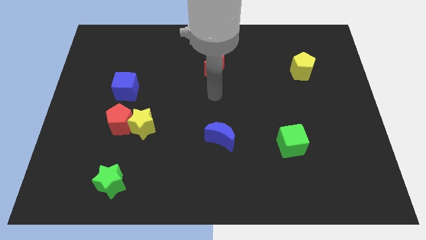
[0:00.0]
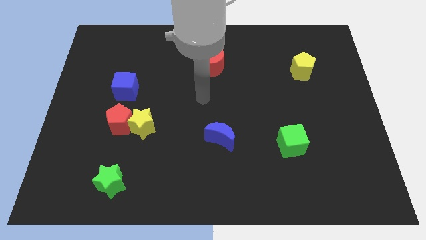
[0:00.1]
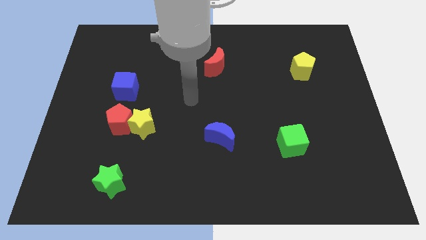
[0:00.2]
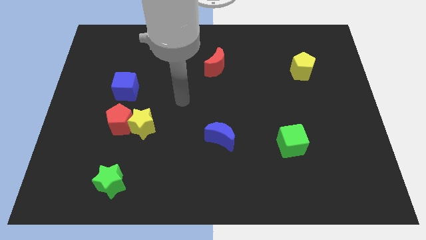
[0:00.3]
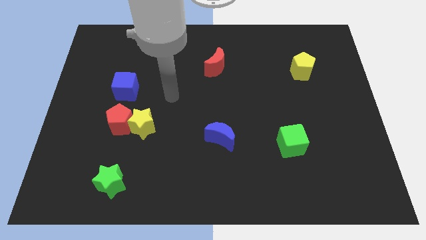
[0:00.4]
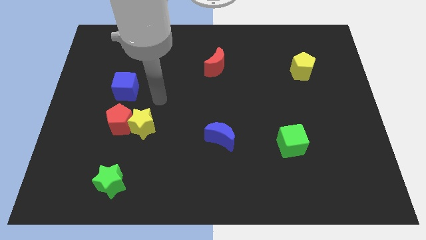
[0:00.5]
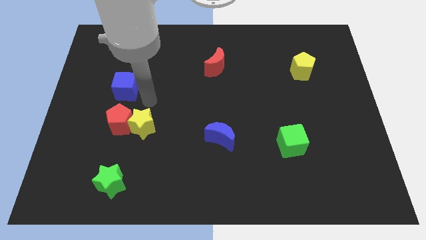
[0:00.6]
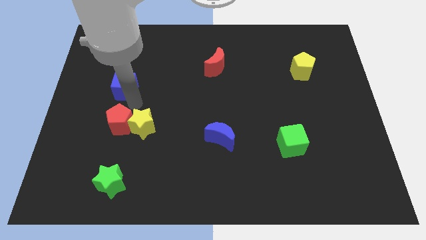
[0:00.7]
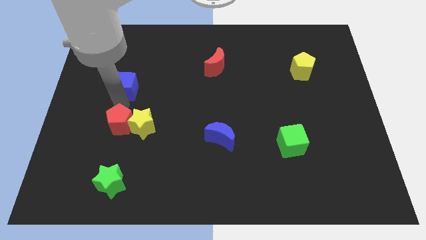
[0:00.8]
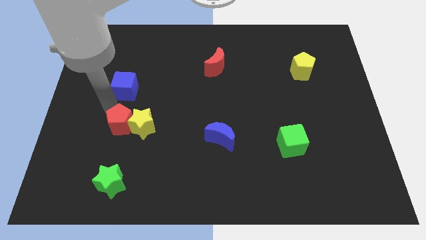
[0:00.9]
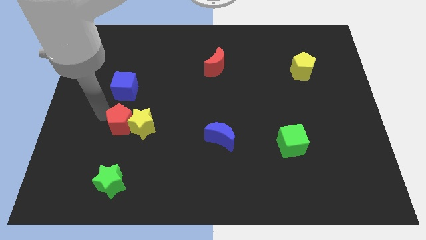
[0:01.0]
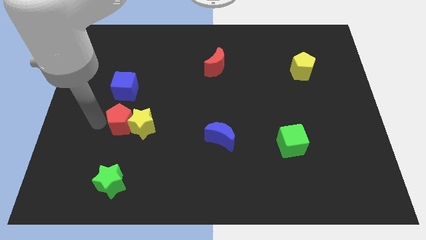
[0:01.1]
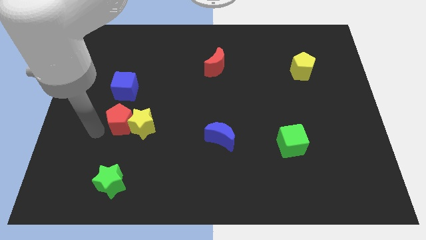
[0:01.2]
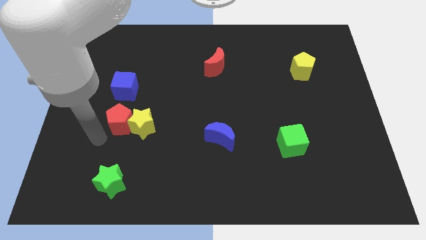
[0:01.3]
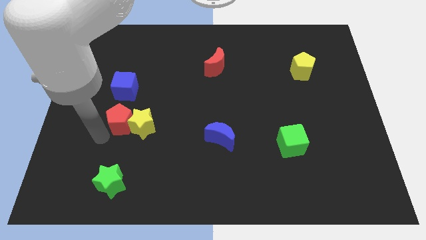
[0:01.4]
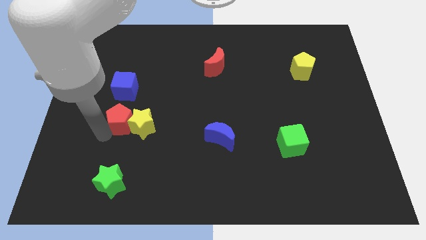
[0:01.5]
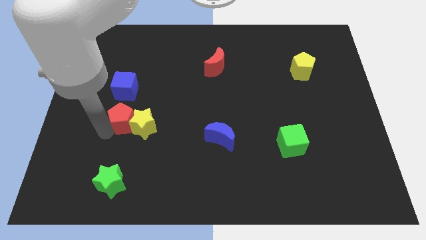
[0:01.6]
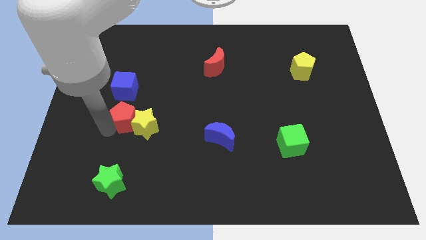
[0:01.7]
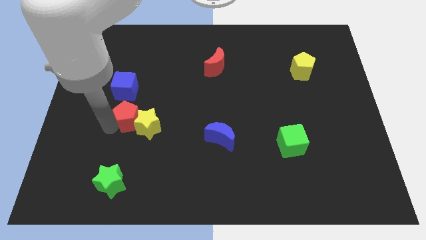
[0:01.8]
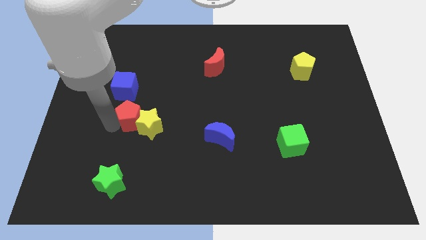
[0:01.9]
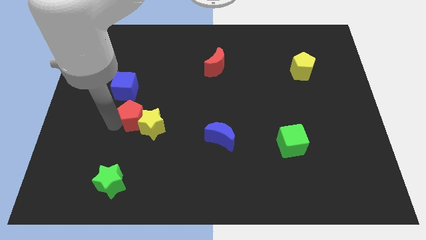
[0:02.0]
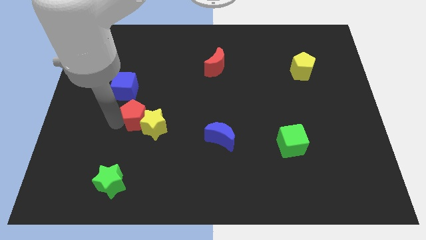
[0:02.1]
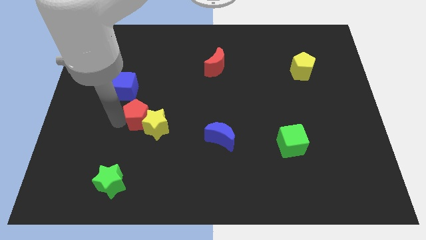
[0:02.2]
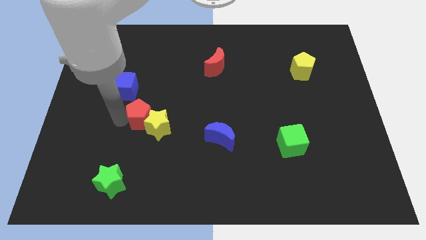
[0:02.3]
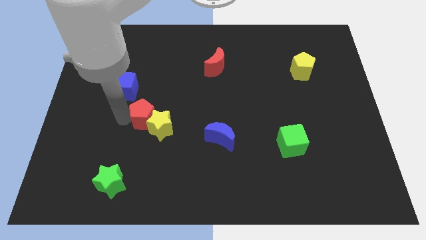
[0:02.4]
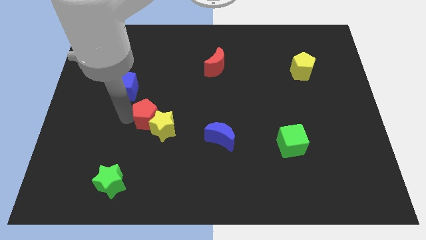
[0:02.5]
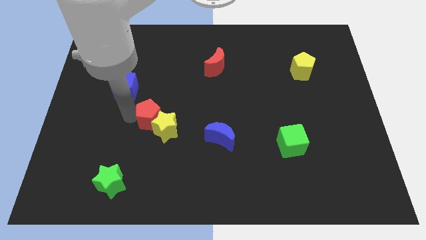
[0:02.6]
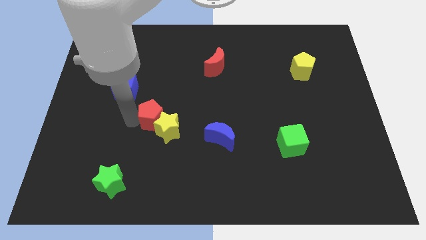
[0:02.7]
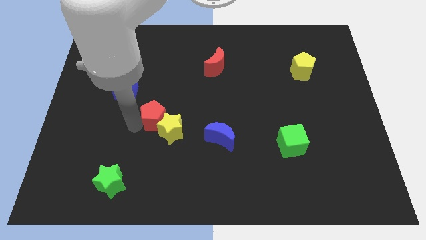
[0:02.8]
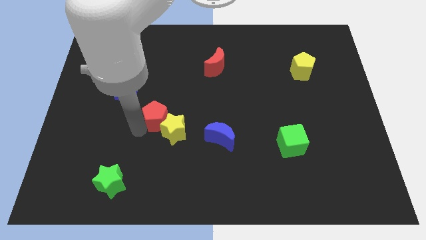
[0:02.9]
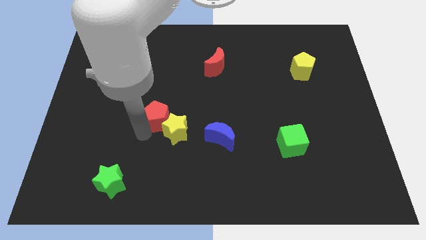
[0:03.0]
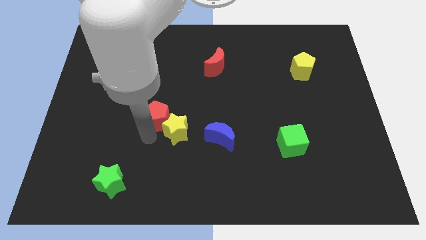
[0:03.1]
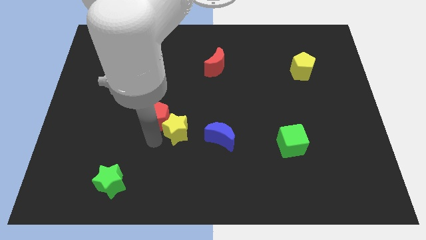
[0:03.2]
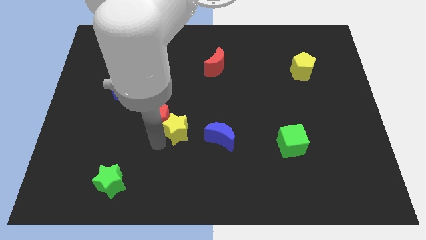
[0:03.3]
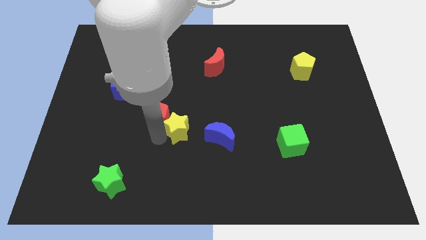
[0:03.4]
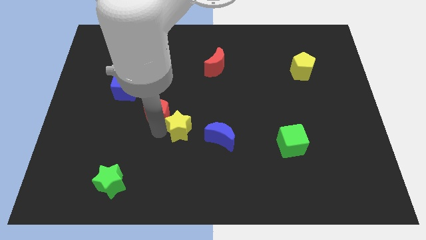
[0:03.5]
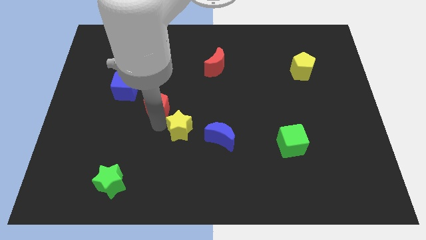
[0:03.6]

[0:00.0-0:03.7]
move the red pentagon up and right diagonally slightly

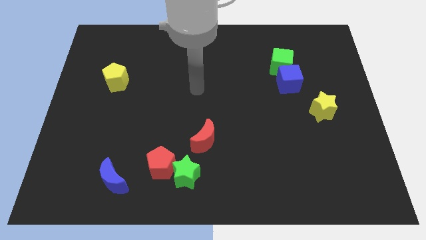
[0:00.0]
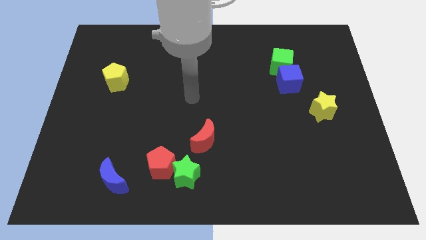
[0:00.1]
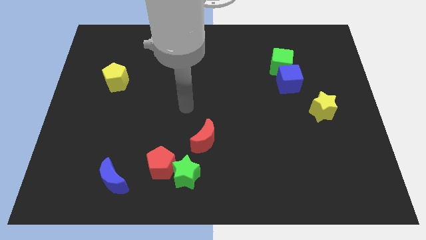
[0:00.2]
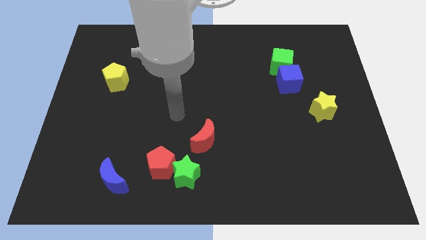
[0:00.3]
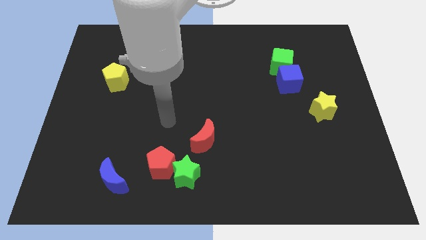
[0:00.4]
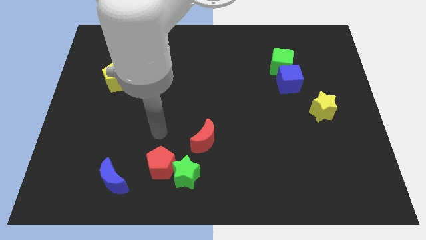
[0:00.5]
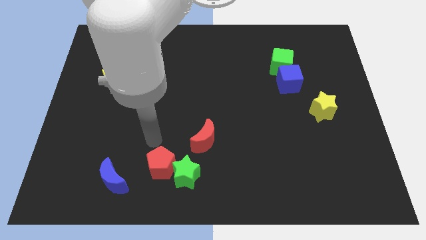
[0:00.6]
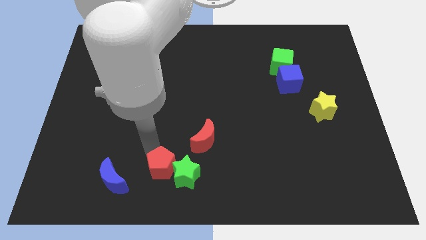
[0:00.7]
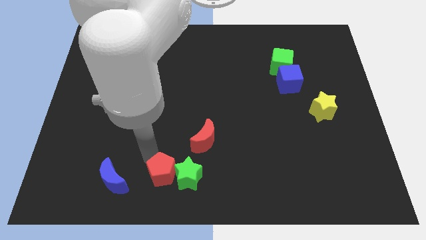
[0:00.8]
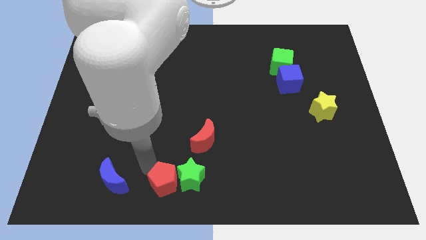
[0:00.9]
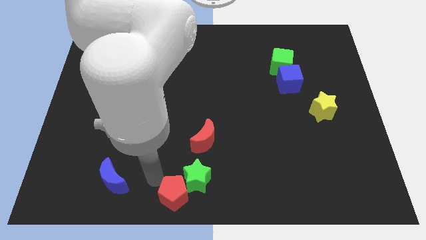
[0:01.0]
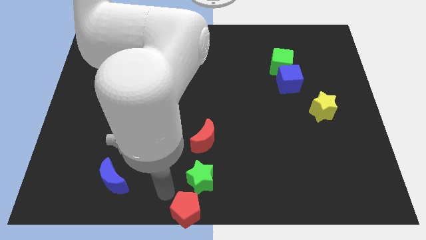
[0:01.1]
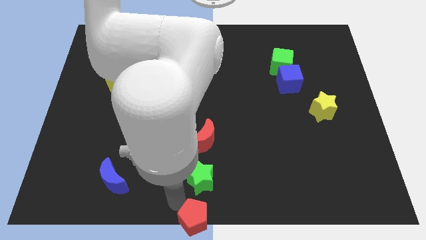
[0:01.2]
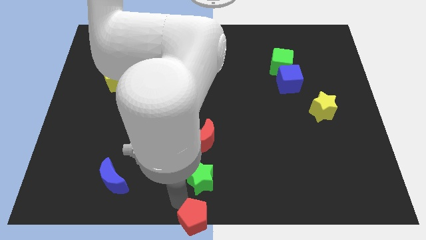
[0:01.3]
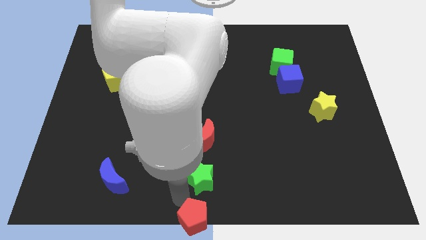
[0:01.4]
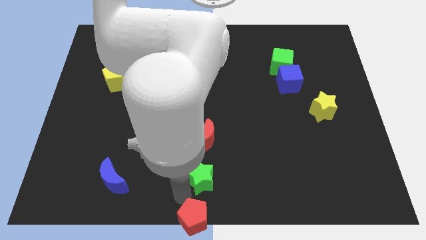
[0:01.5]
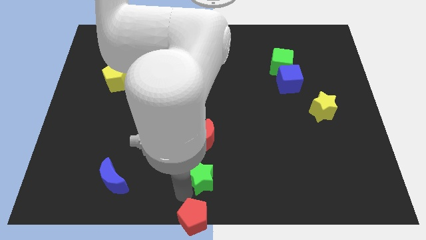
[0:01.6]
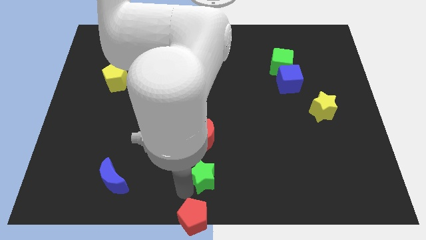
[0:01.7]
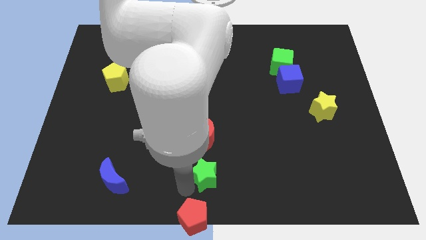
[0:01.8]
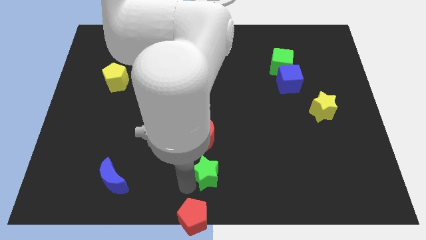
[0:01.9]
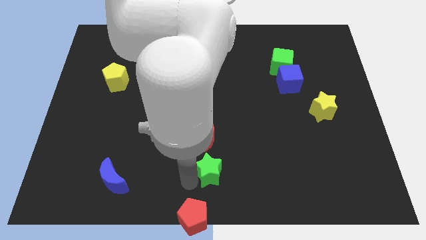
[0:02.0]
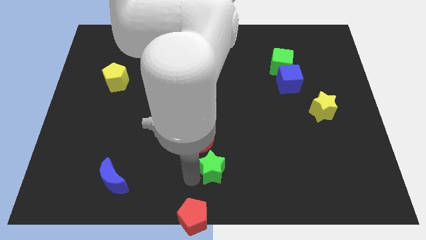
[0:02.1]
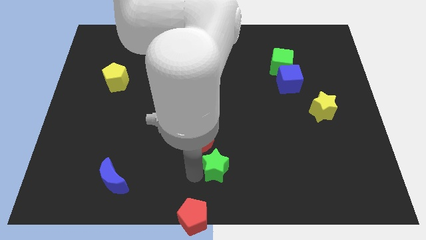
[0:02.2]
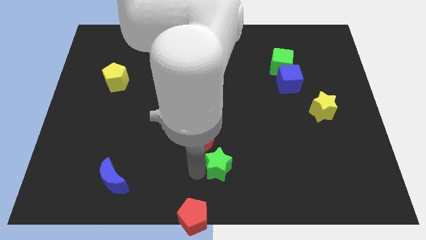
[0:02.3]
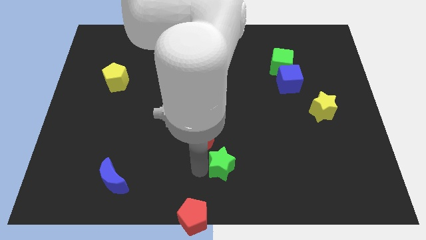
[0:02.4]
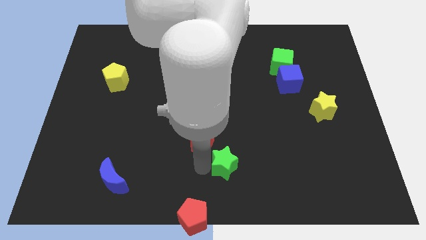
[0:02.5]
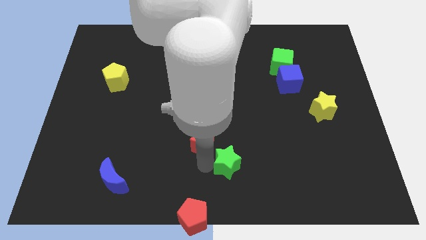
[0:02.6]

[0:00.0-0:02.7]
slightly push the green star diagonally upwards and right

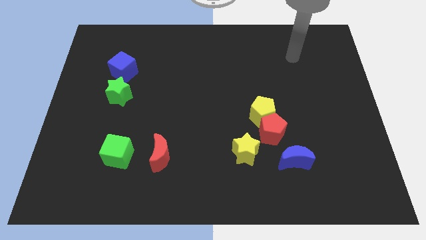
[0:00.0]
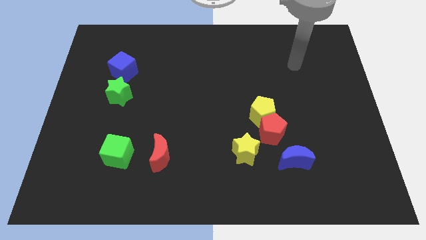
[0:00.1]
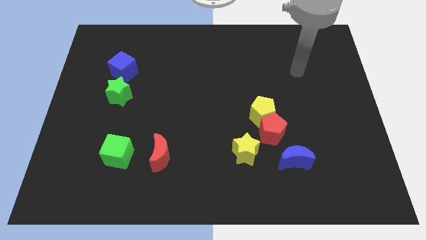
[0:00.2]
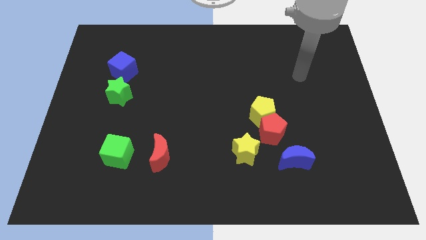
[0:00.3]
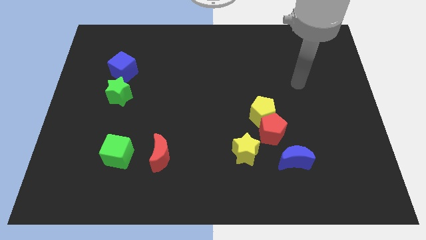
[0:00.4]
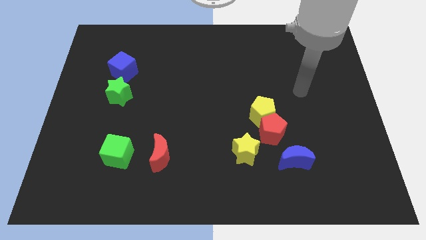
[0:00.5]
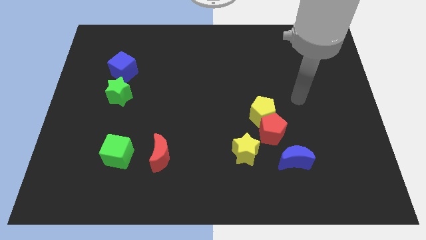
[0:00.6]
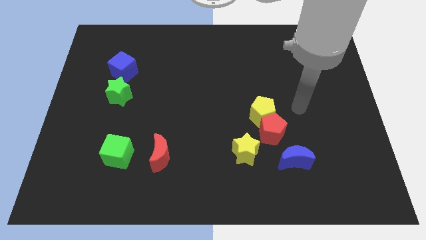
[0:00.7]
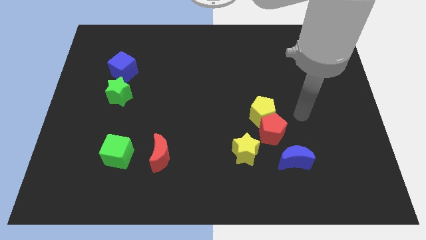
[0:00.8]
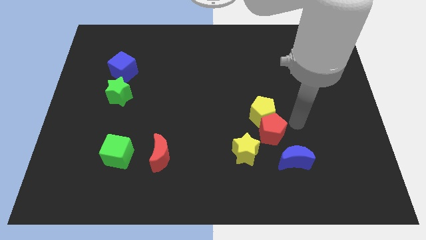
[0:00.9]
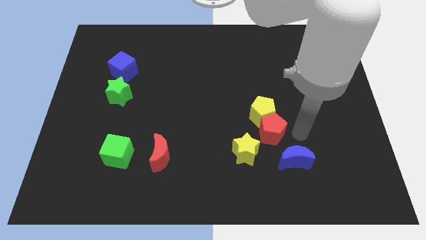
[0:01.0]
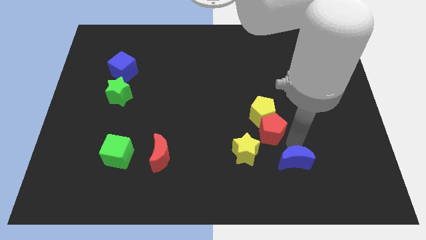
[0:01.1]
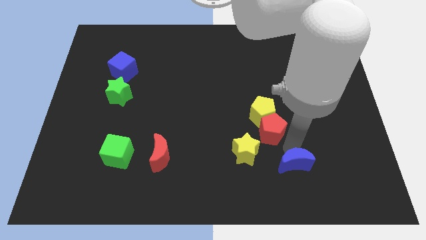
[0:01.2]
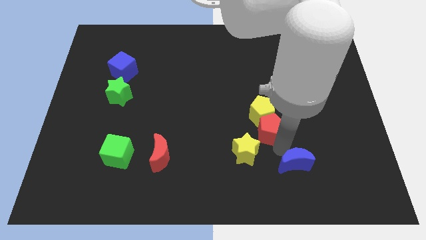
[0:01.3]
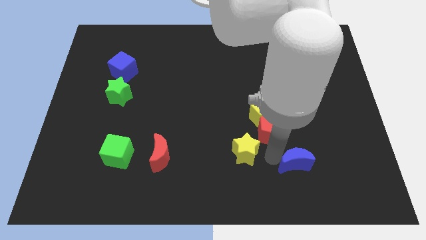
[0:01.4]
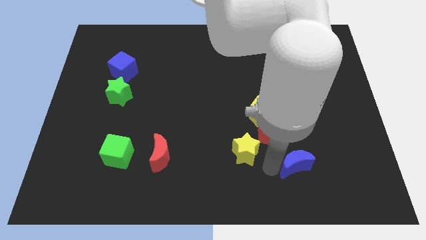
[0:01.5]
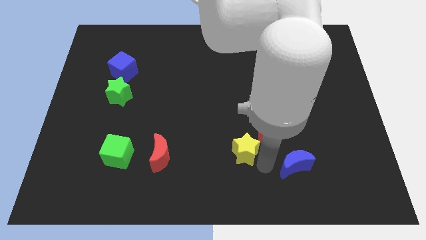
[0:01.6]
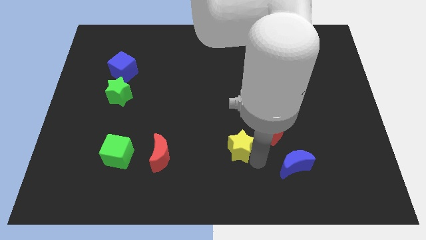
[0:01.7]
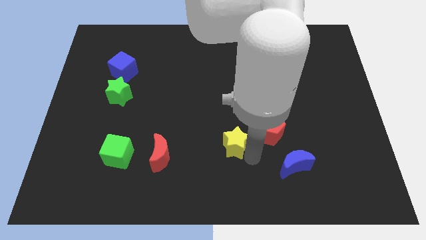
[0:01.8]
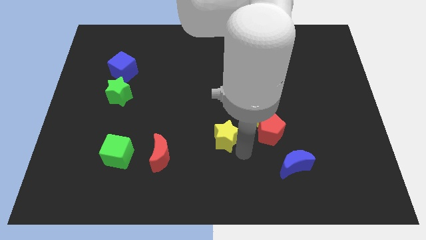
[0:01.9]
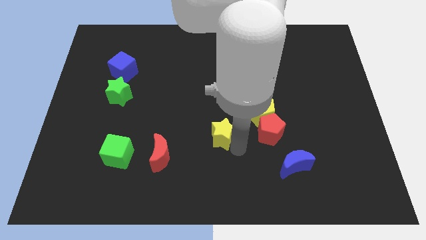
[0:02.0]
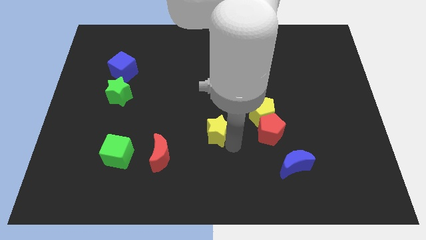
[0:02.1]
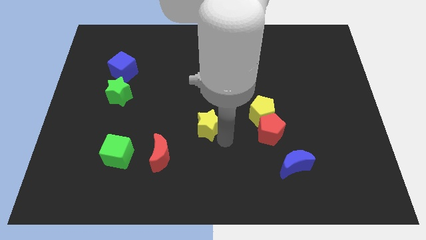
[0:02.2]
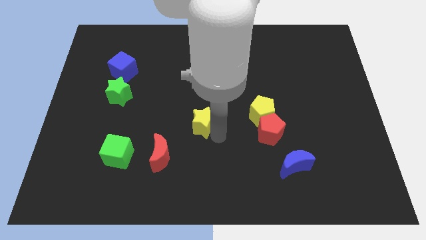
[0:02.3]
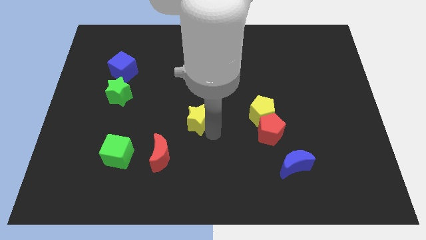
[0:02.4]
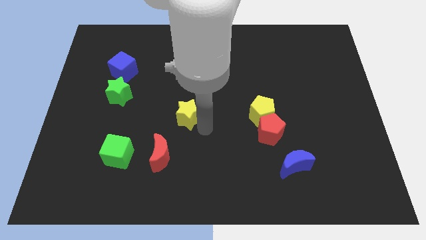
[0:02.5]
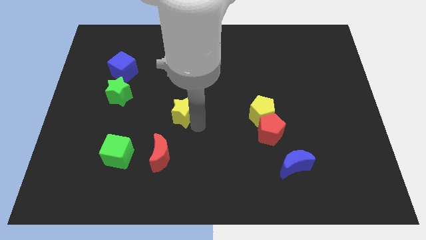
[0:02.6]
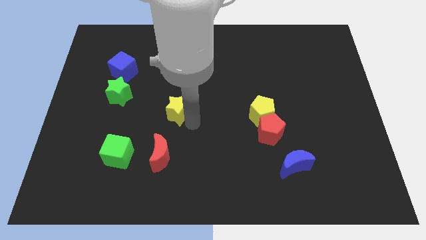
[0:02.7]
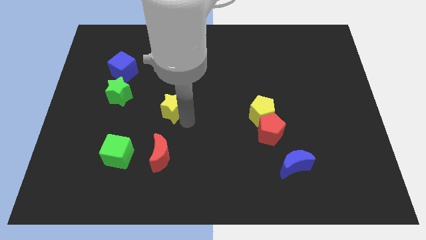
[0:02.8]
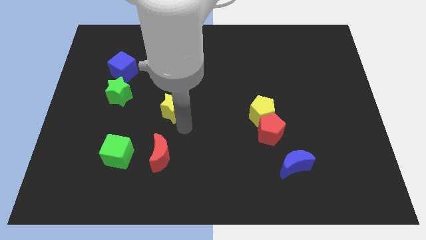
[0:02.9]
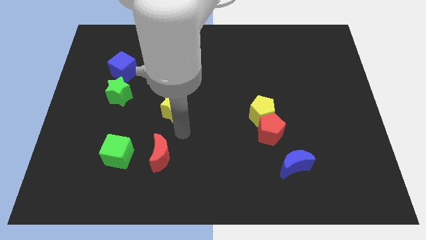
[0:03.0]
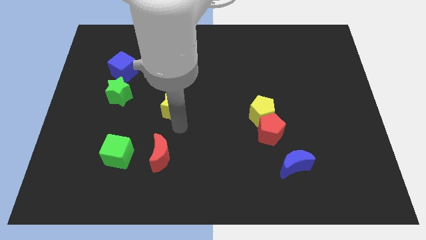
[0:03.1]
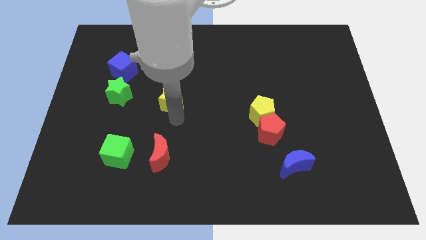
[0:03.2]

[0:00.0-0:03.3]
push the yellow star up and left diagonally
